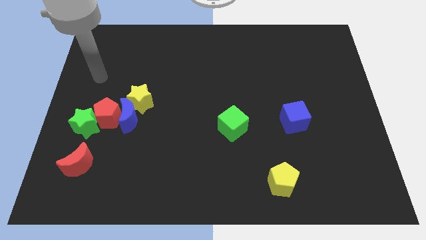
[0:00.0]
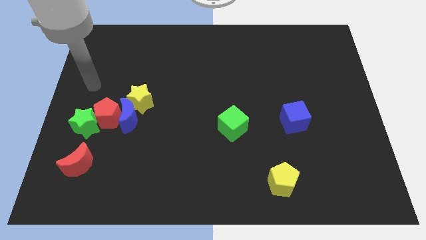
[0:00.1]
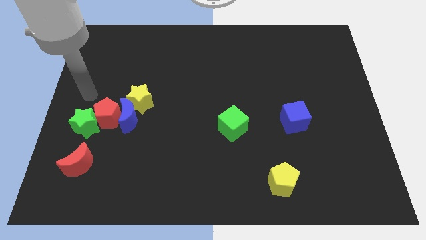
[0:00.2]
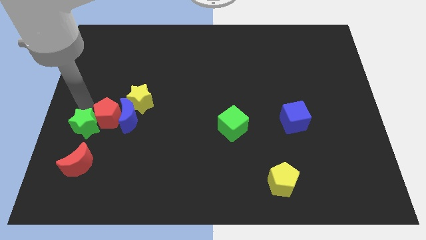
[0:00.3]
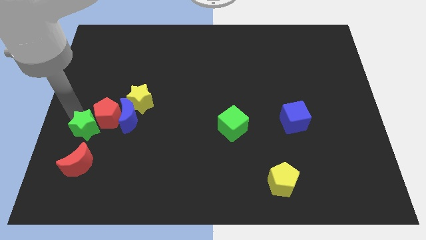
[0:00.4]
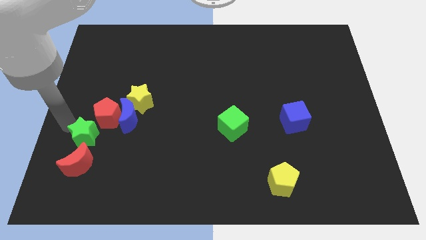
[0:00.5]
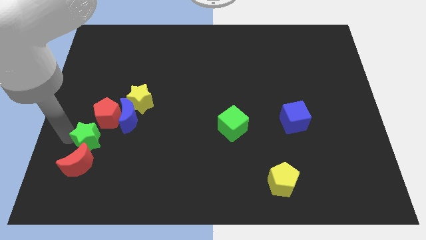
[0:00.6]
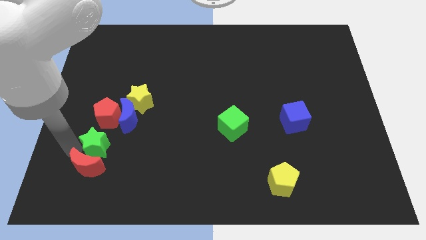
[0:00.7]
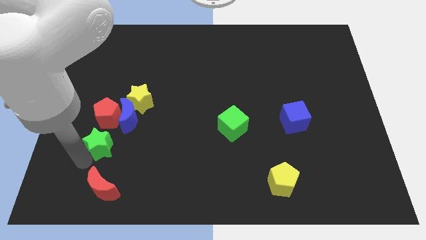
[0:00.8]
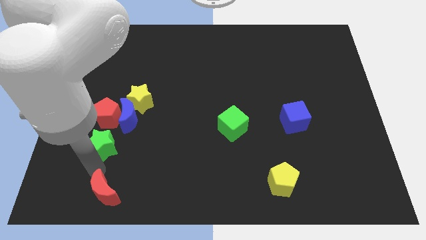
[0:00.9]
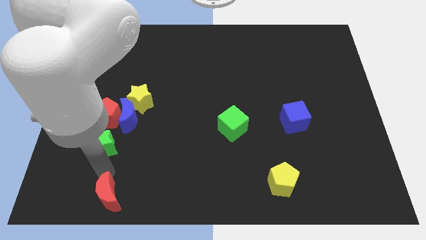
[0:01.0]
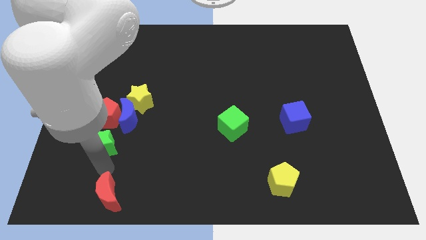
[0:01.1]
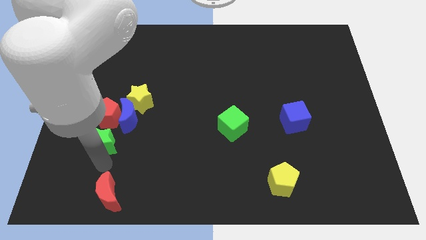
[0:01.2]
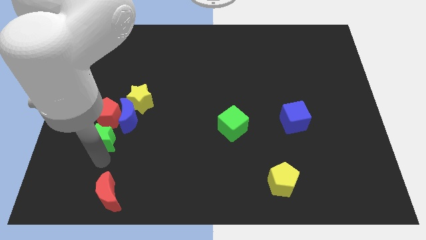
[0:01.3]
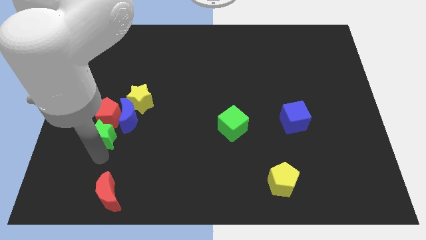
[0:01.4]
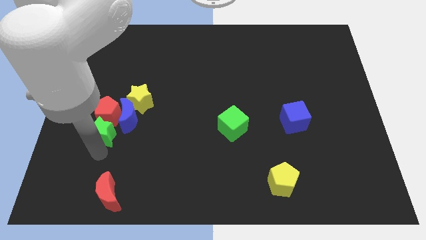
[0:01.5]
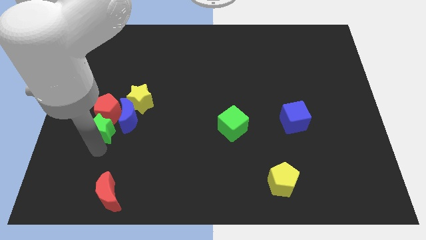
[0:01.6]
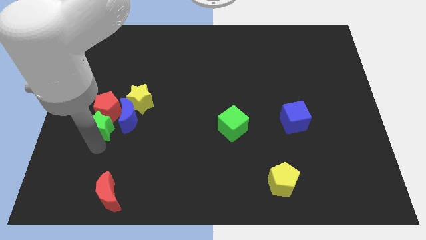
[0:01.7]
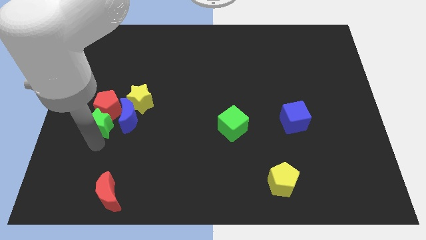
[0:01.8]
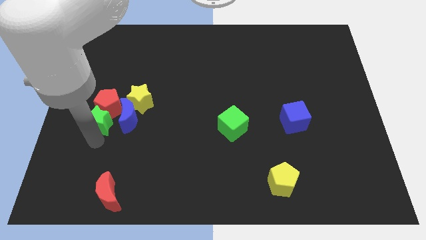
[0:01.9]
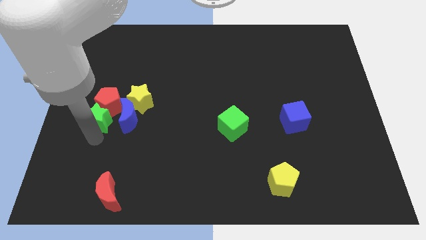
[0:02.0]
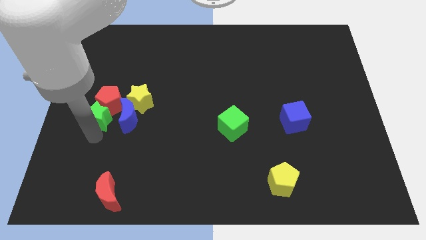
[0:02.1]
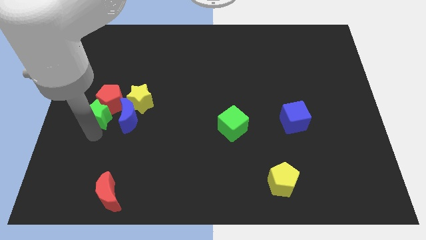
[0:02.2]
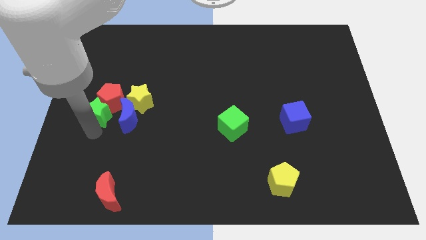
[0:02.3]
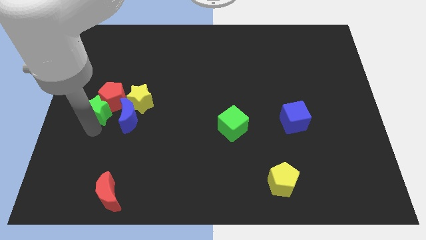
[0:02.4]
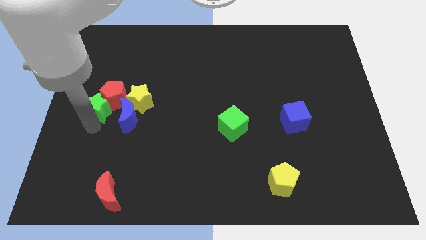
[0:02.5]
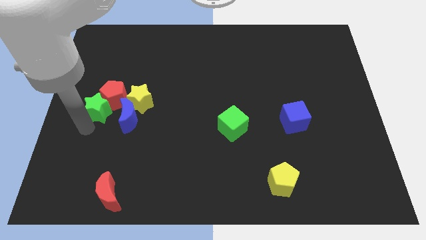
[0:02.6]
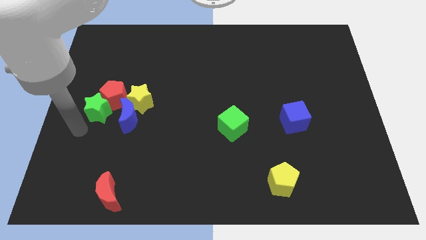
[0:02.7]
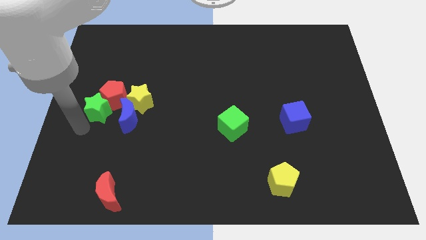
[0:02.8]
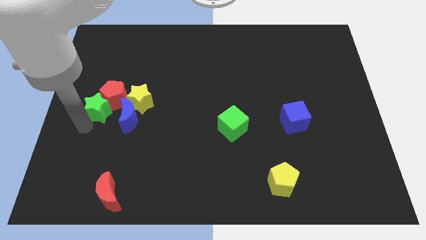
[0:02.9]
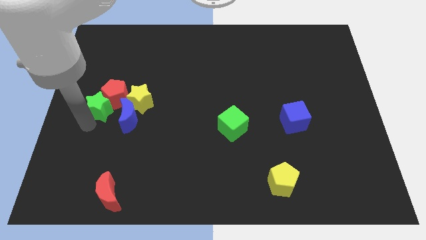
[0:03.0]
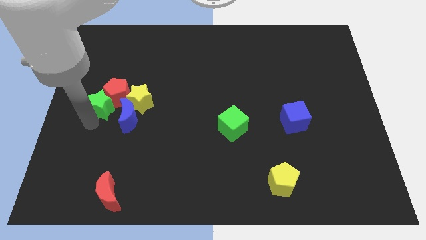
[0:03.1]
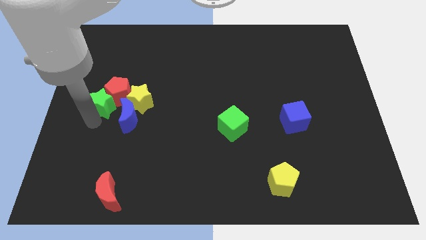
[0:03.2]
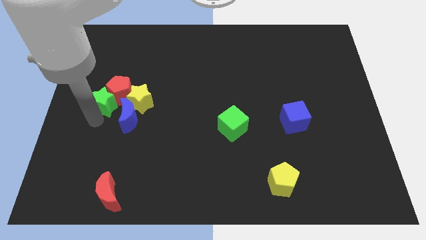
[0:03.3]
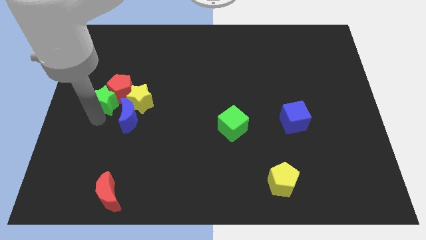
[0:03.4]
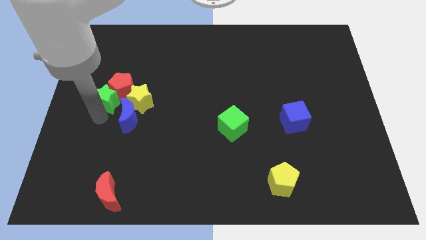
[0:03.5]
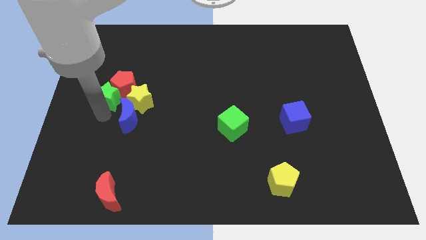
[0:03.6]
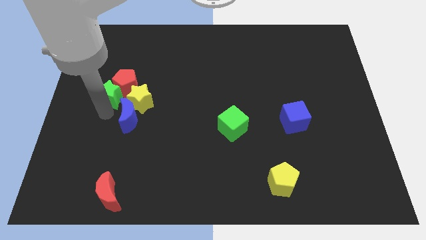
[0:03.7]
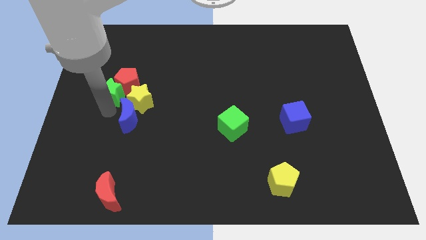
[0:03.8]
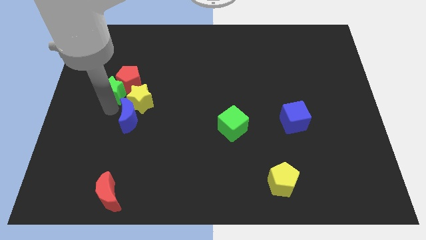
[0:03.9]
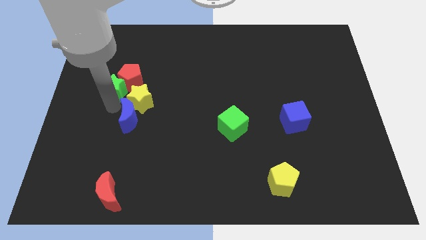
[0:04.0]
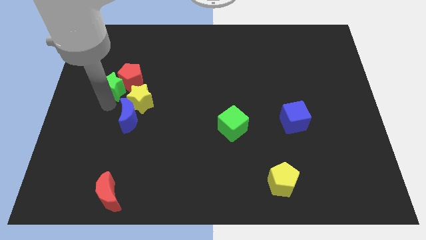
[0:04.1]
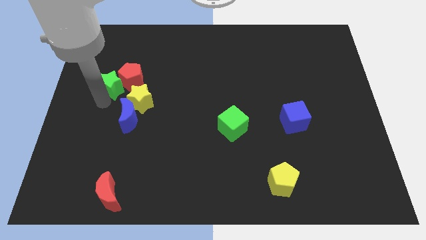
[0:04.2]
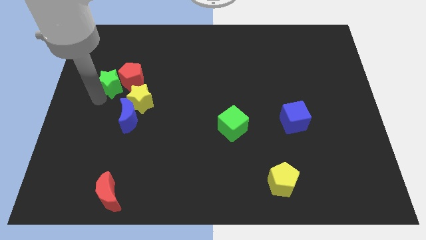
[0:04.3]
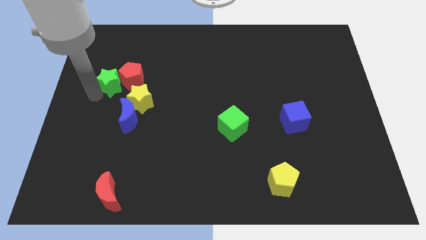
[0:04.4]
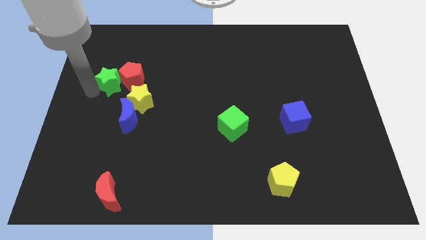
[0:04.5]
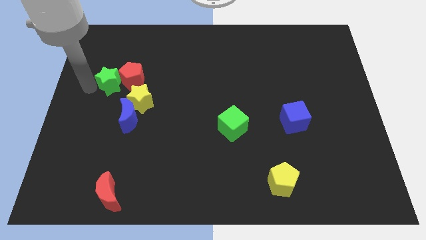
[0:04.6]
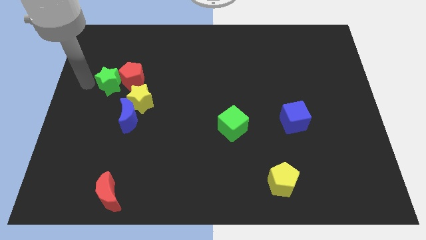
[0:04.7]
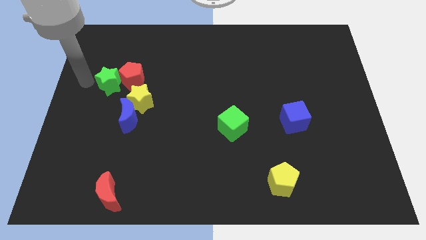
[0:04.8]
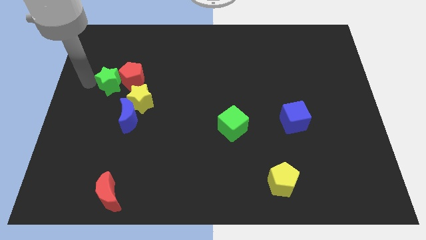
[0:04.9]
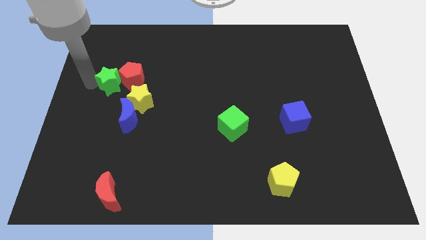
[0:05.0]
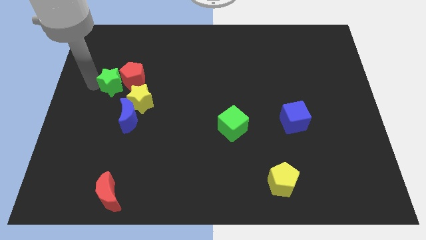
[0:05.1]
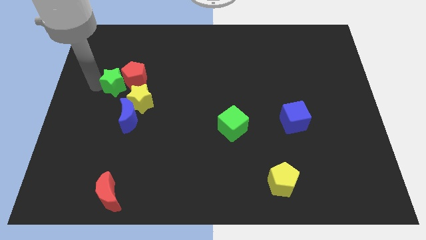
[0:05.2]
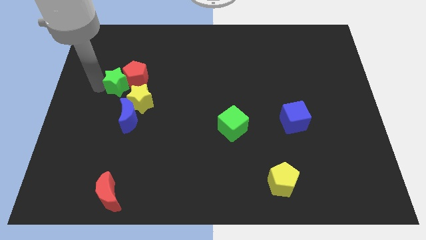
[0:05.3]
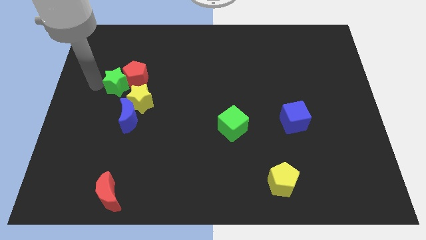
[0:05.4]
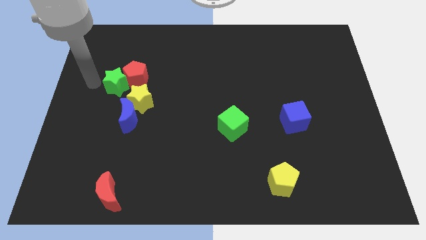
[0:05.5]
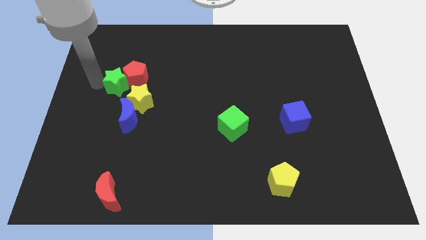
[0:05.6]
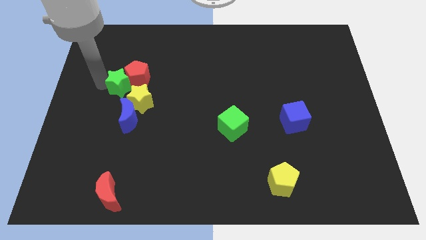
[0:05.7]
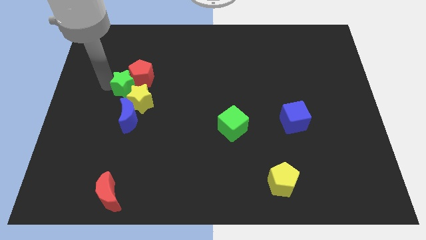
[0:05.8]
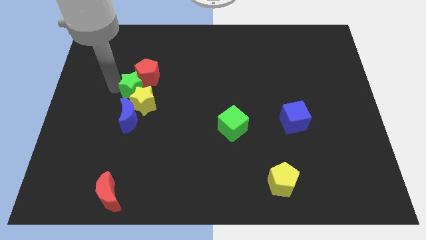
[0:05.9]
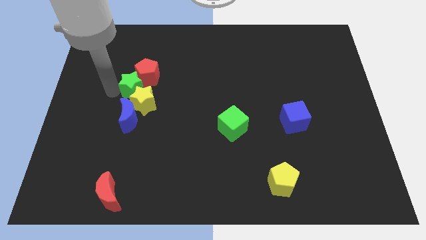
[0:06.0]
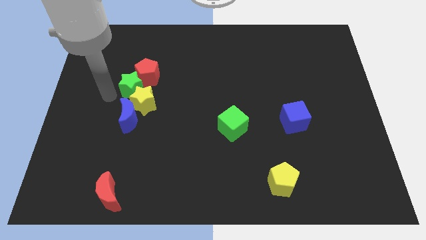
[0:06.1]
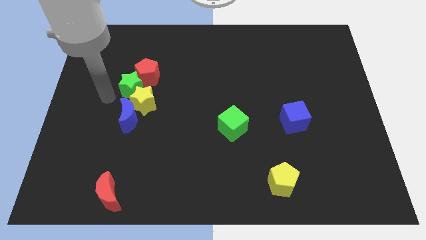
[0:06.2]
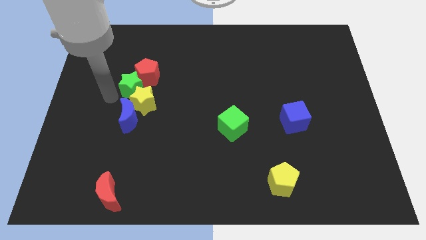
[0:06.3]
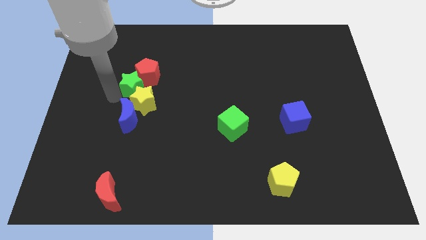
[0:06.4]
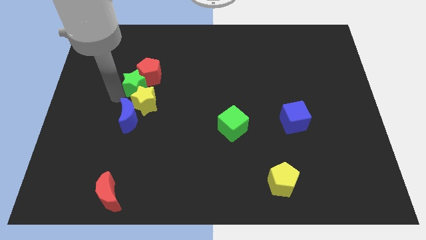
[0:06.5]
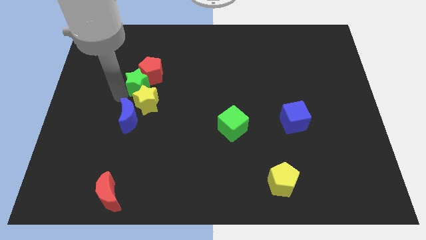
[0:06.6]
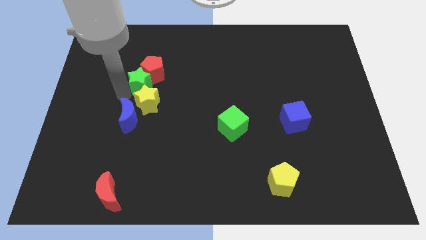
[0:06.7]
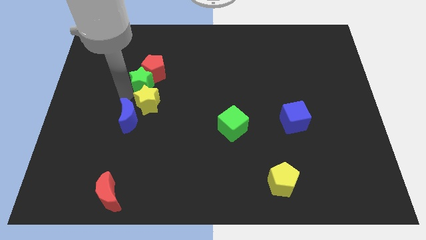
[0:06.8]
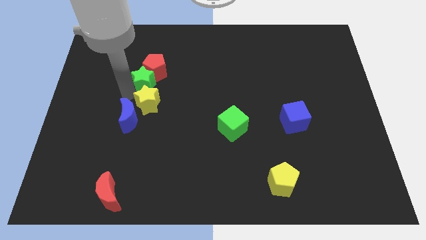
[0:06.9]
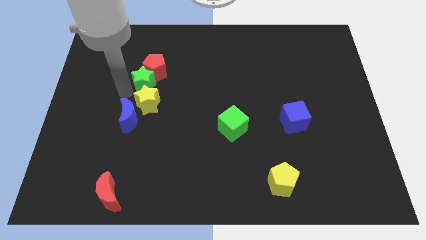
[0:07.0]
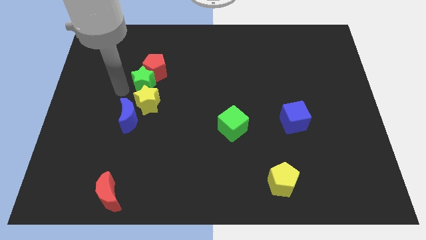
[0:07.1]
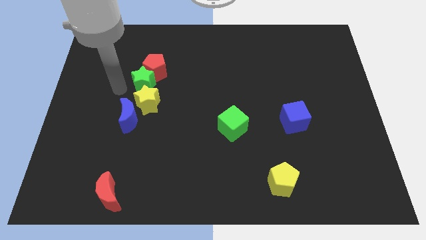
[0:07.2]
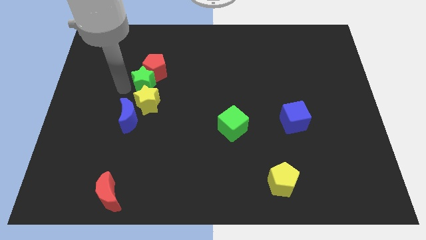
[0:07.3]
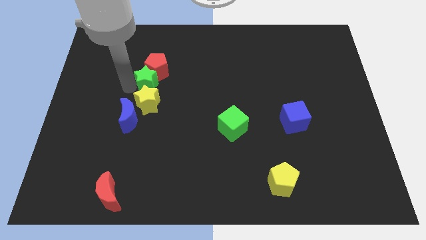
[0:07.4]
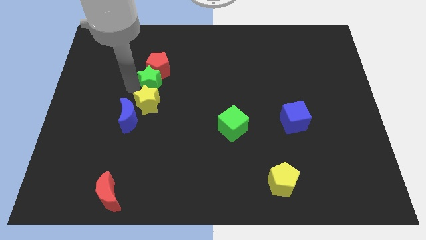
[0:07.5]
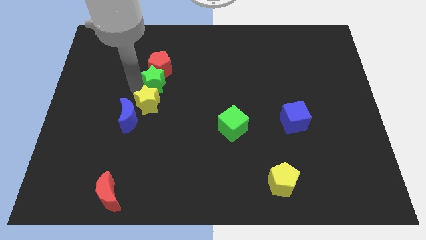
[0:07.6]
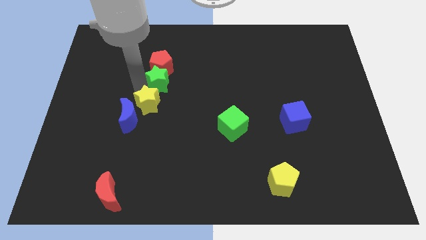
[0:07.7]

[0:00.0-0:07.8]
push the green star upwards and to the right diagonally

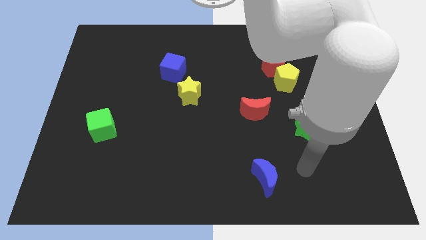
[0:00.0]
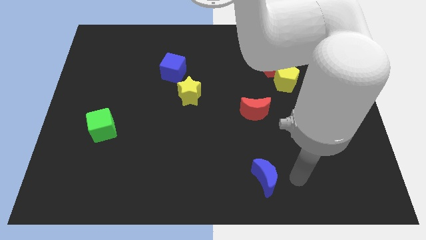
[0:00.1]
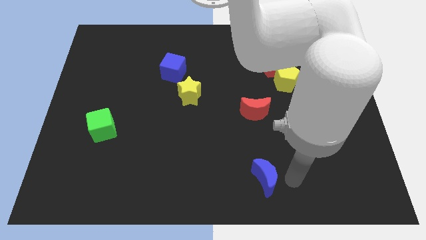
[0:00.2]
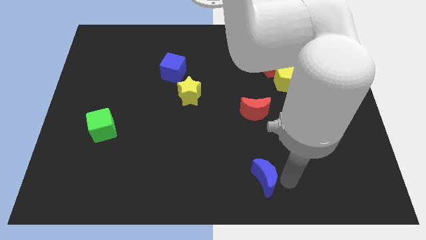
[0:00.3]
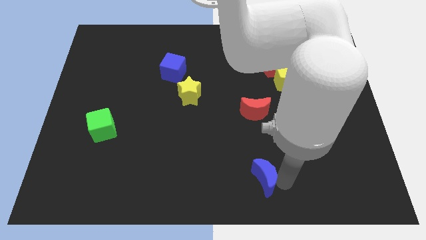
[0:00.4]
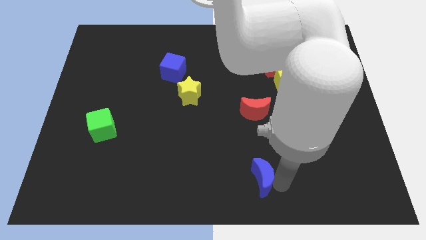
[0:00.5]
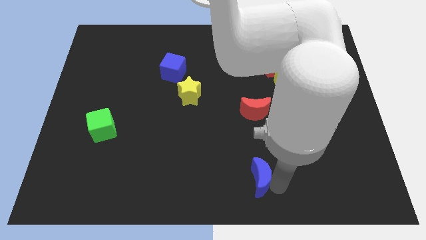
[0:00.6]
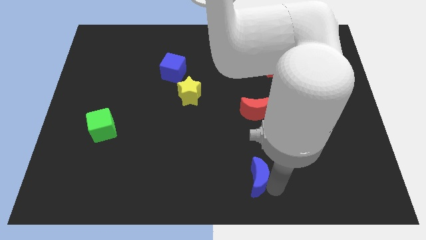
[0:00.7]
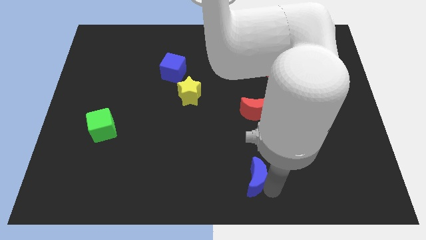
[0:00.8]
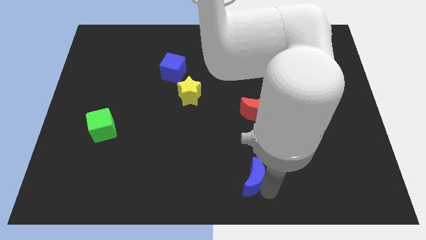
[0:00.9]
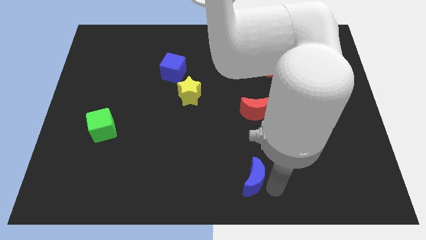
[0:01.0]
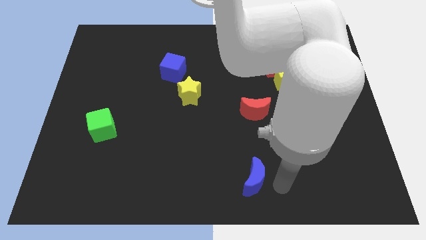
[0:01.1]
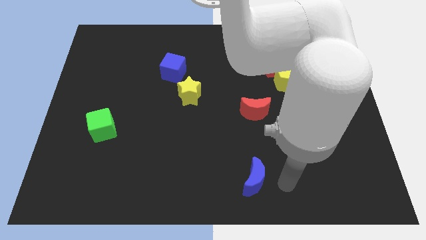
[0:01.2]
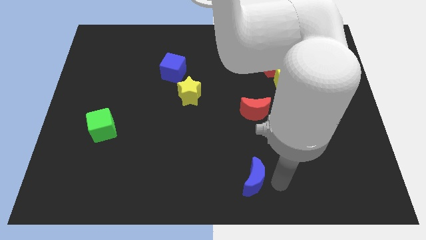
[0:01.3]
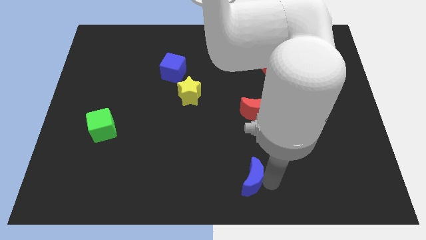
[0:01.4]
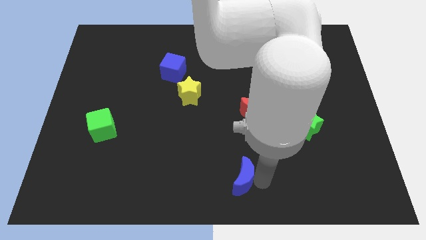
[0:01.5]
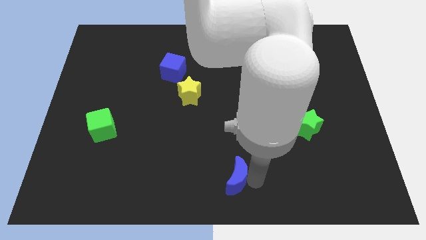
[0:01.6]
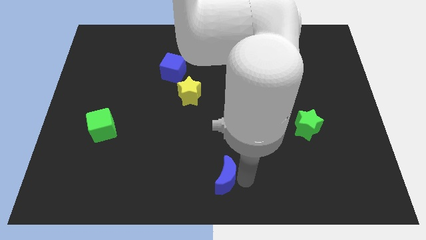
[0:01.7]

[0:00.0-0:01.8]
slightly slide the blue moon left
